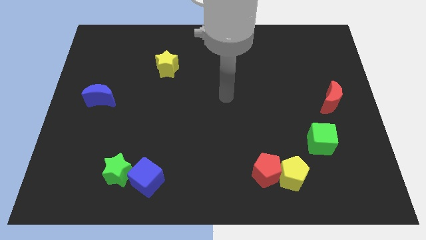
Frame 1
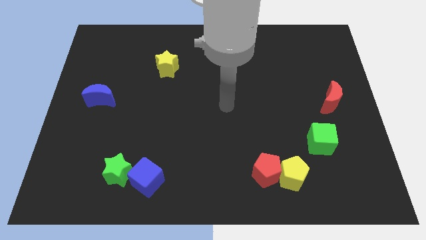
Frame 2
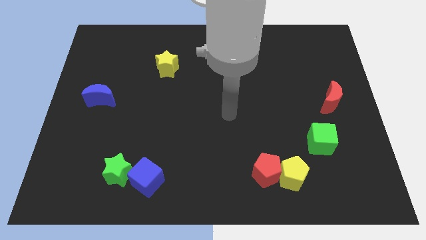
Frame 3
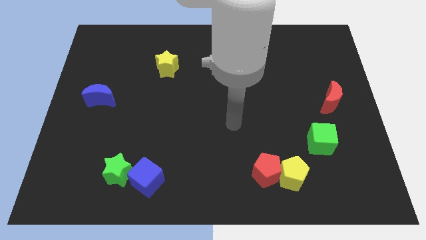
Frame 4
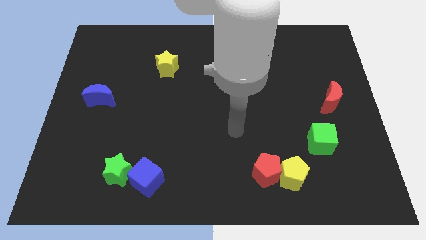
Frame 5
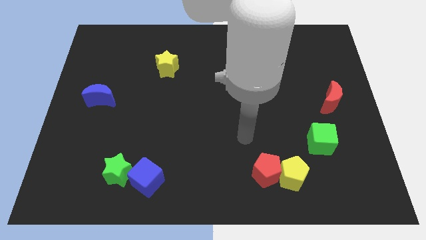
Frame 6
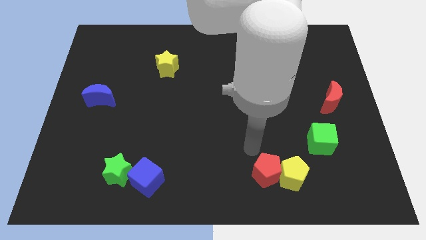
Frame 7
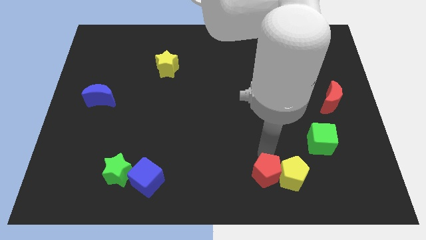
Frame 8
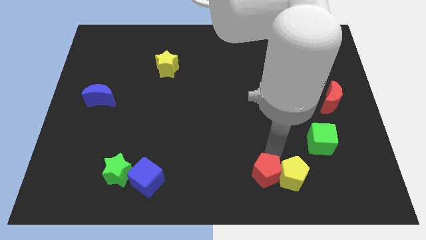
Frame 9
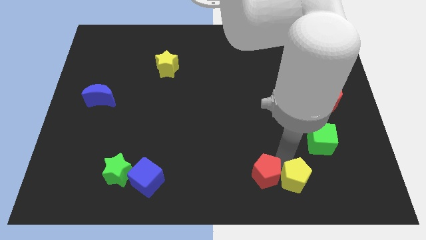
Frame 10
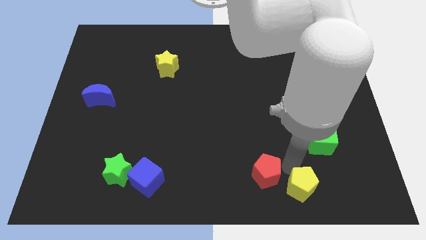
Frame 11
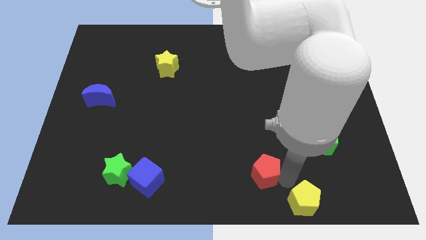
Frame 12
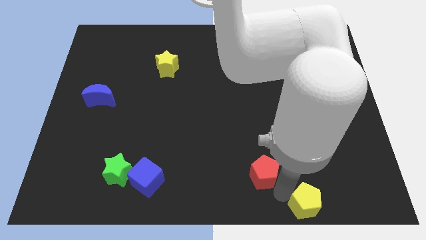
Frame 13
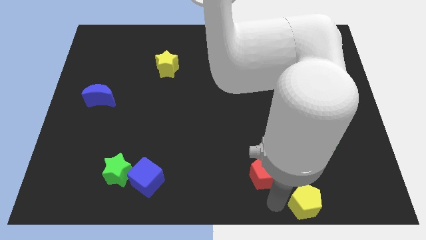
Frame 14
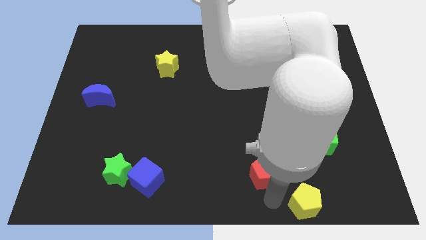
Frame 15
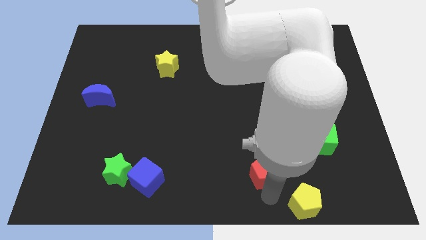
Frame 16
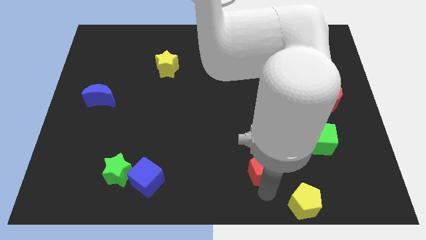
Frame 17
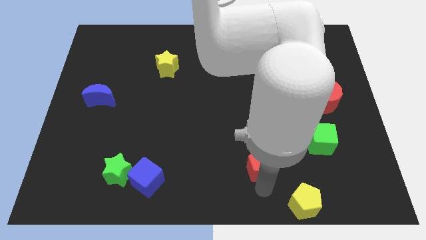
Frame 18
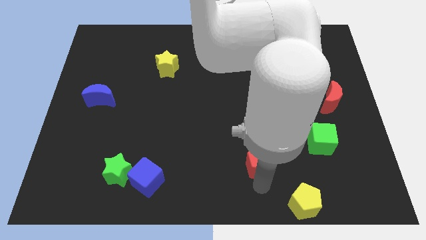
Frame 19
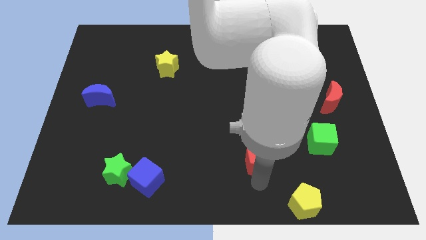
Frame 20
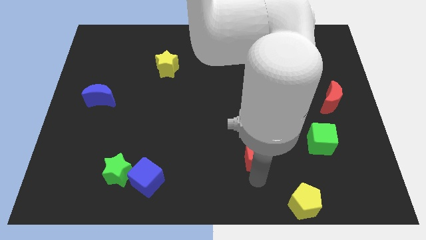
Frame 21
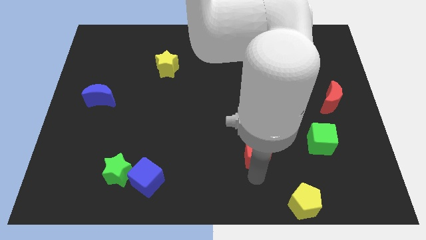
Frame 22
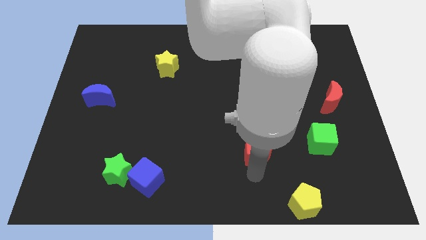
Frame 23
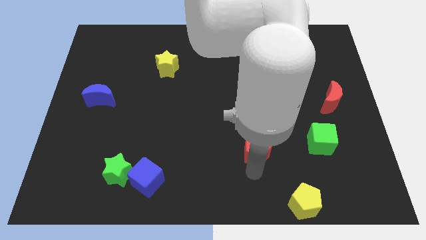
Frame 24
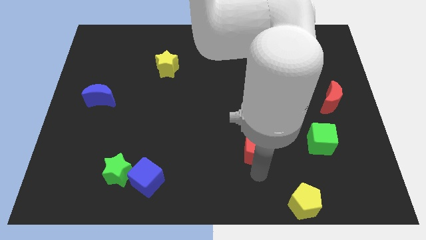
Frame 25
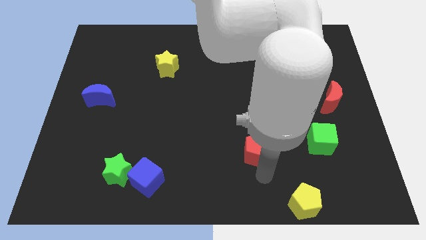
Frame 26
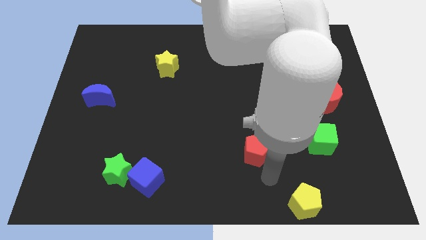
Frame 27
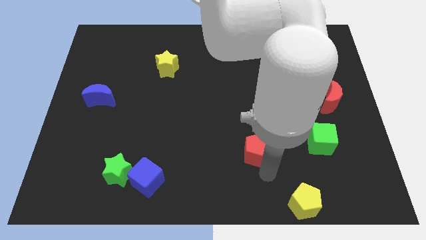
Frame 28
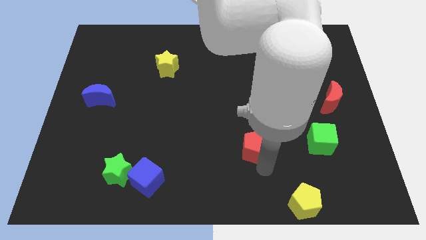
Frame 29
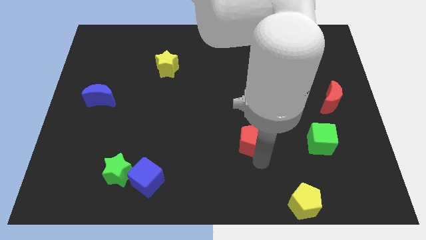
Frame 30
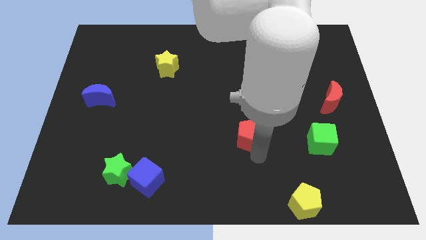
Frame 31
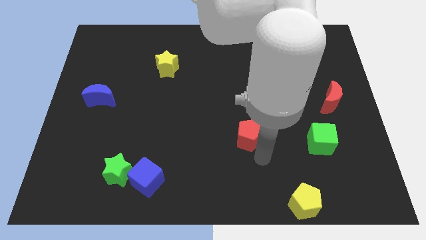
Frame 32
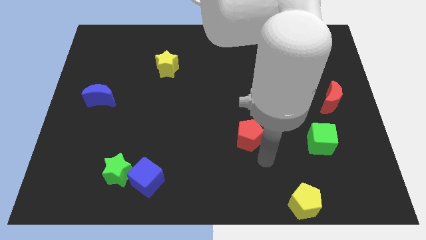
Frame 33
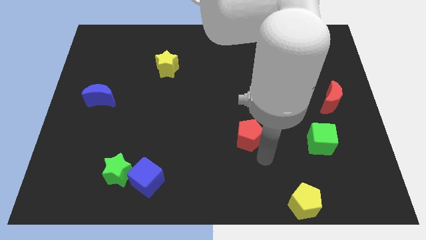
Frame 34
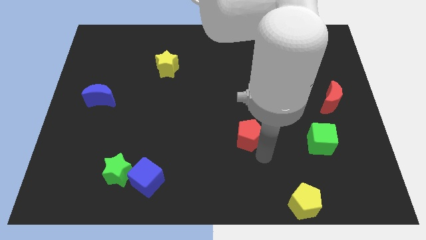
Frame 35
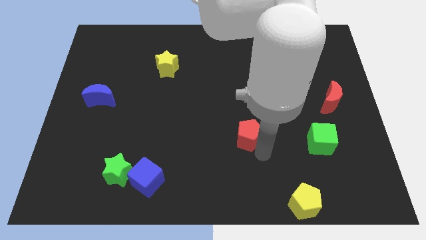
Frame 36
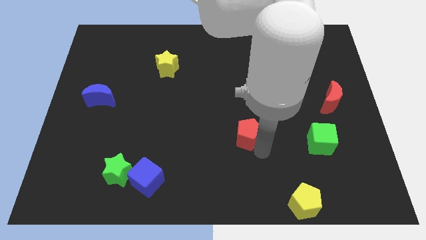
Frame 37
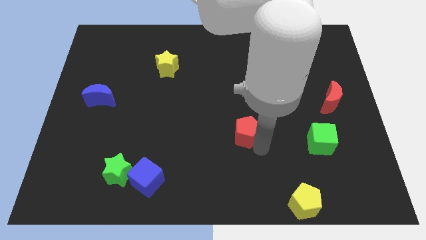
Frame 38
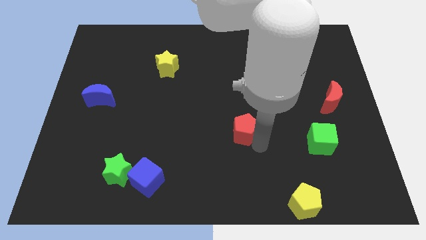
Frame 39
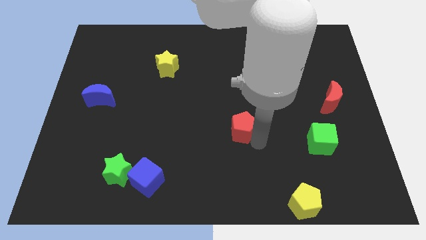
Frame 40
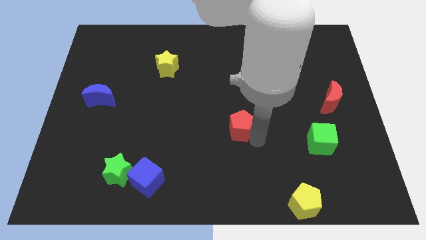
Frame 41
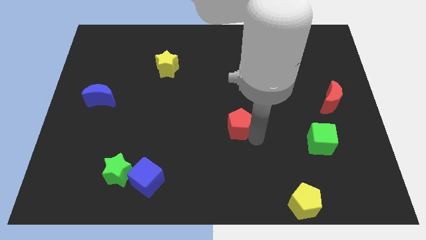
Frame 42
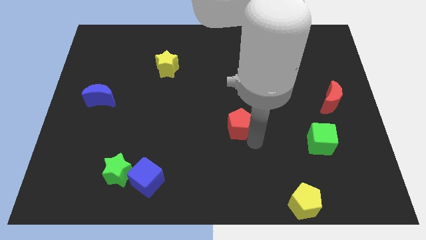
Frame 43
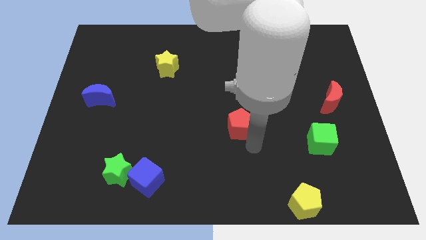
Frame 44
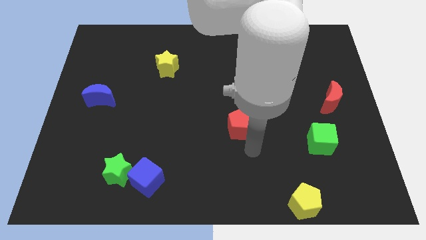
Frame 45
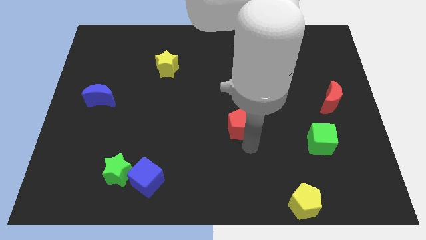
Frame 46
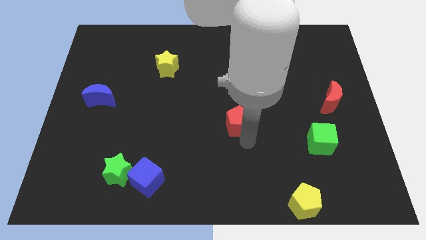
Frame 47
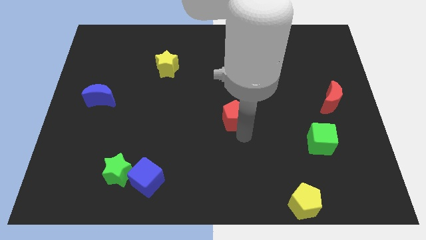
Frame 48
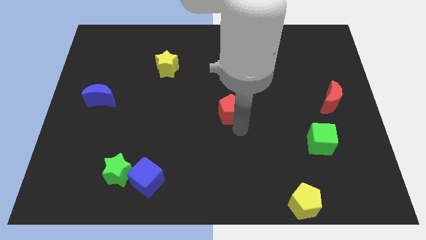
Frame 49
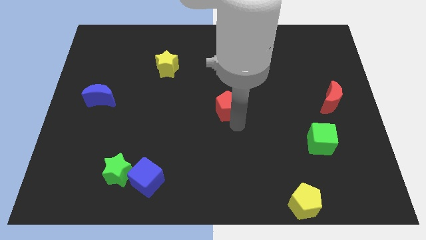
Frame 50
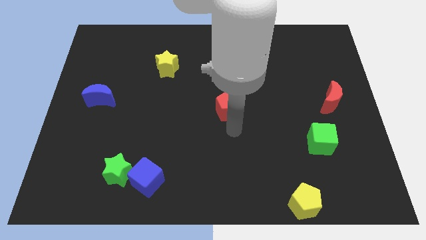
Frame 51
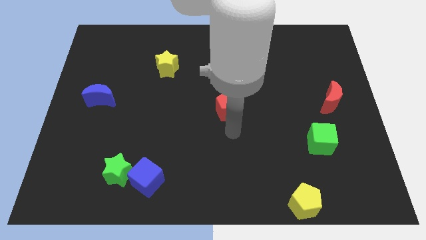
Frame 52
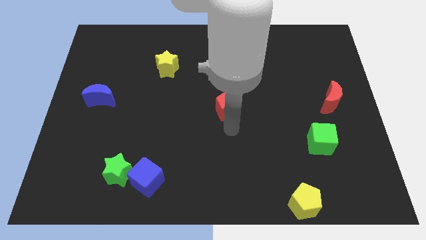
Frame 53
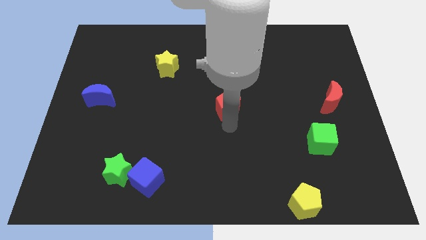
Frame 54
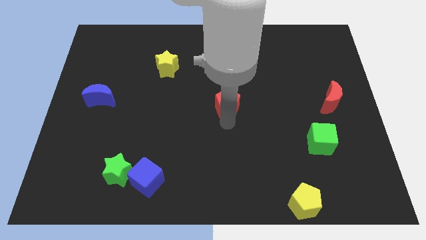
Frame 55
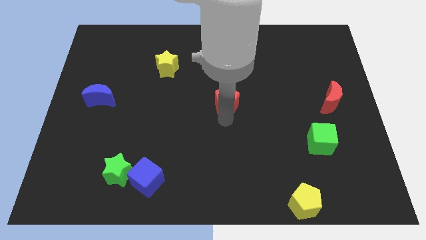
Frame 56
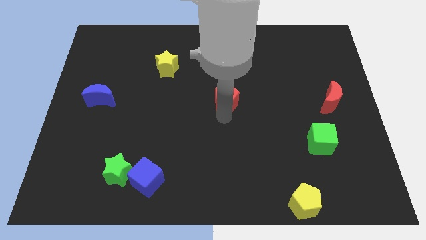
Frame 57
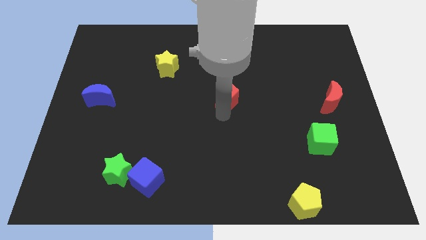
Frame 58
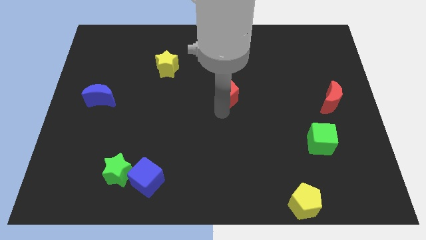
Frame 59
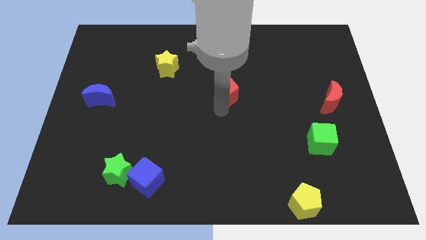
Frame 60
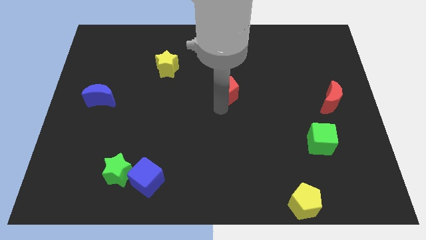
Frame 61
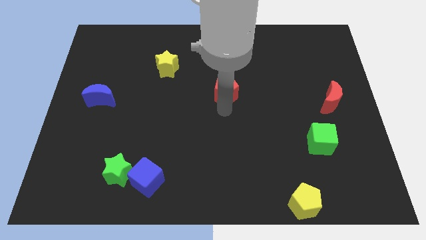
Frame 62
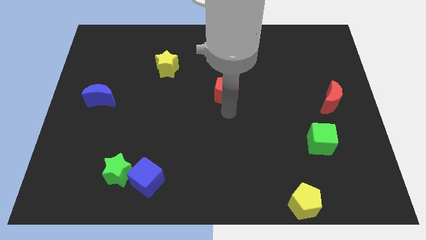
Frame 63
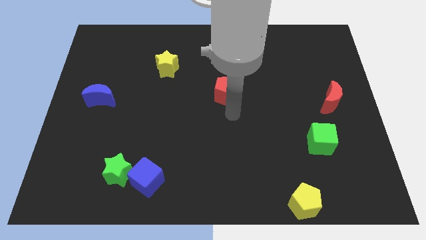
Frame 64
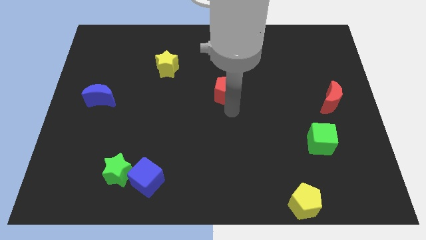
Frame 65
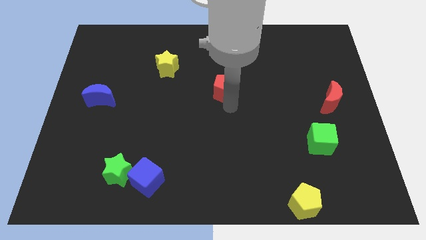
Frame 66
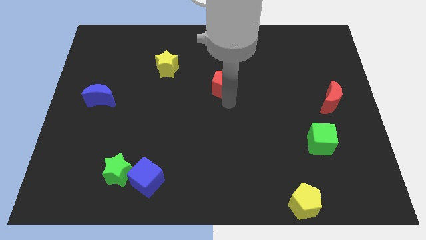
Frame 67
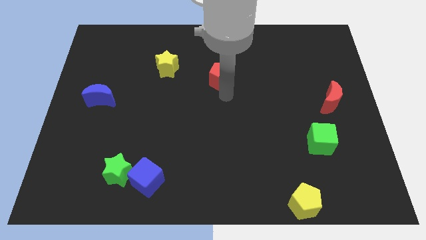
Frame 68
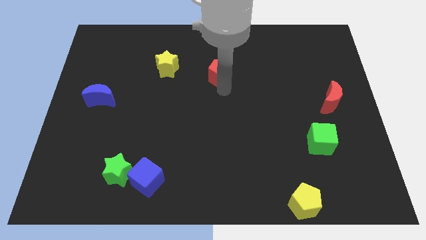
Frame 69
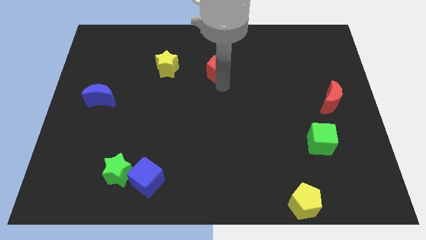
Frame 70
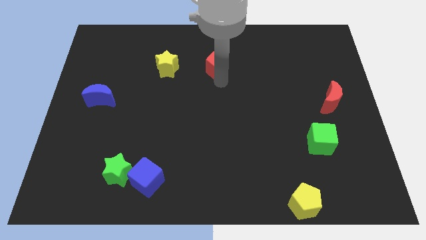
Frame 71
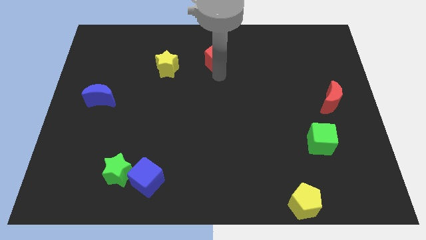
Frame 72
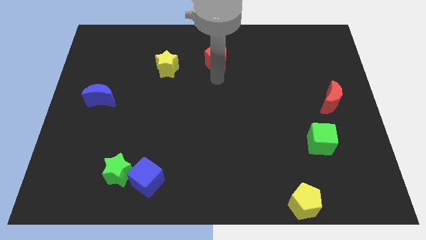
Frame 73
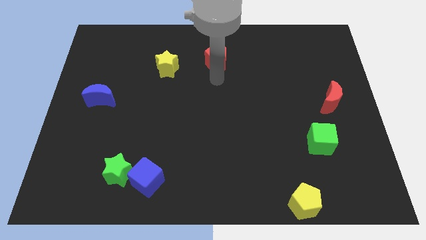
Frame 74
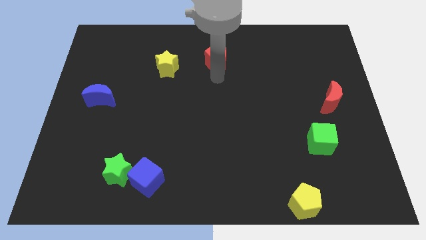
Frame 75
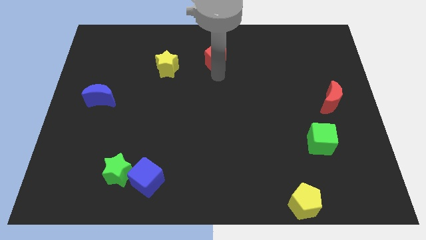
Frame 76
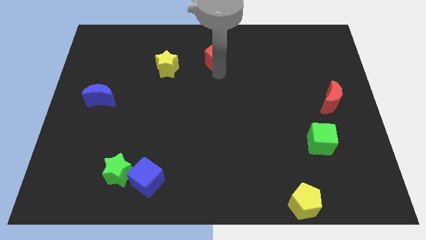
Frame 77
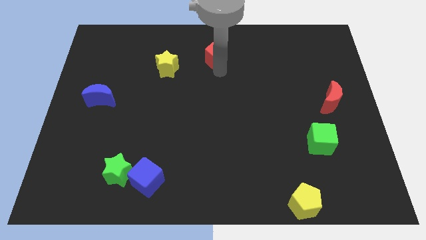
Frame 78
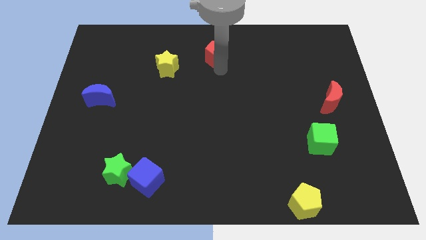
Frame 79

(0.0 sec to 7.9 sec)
push the red pentagon to the top side

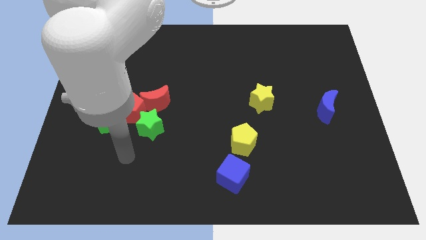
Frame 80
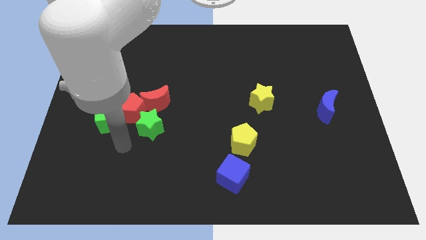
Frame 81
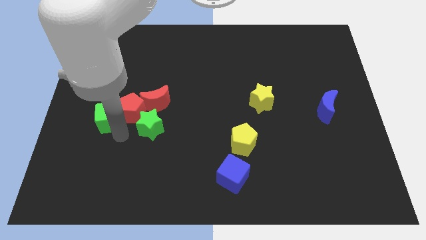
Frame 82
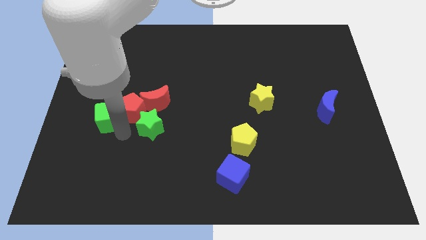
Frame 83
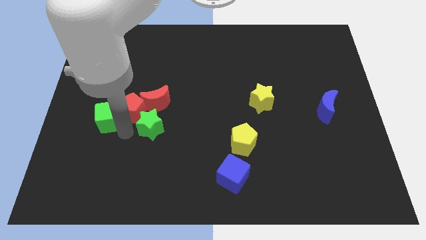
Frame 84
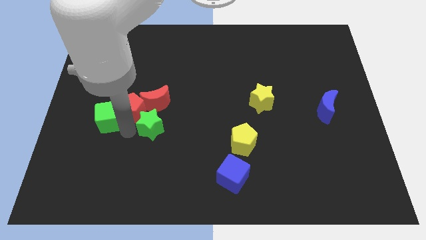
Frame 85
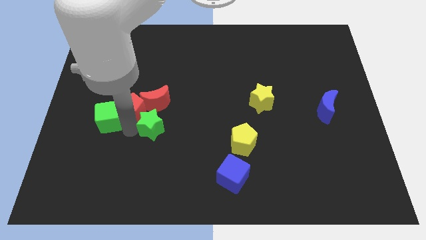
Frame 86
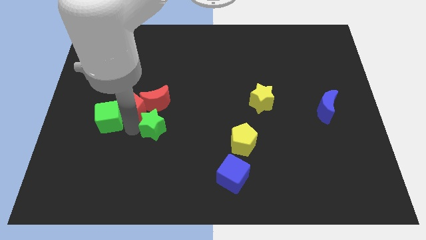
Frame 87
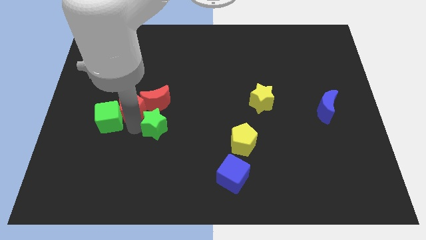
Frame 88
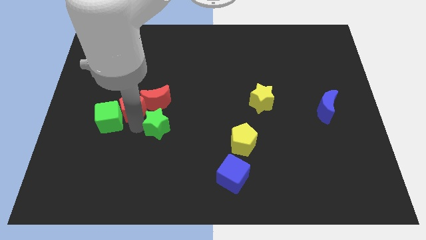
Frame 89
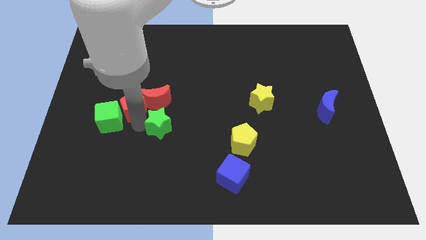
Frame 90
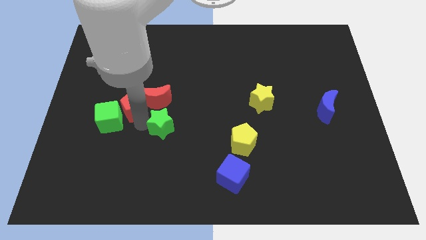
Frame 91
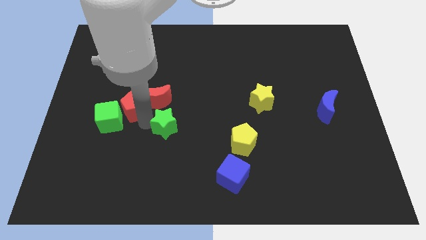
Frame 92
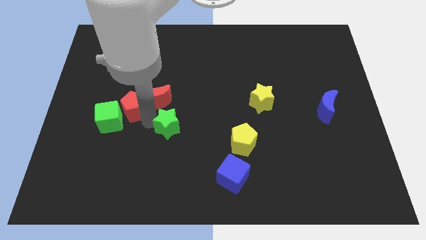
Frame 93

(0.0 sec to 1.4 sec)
push the green star to the center
